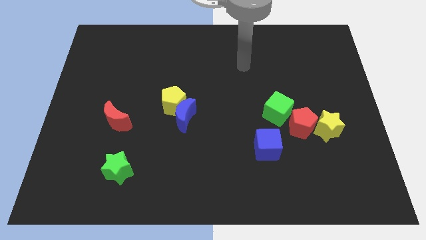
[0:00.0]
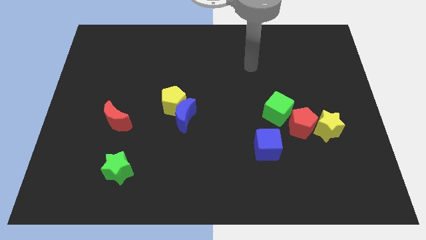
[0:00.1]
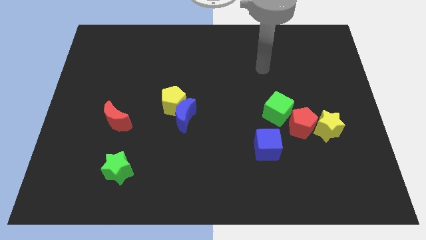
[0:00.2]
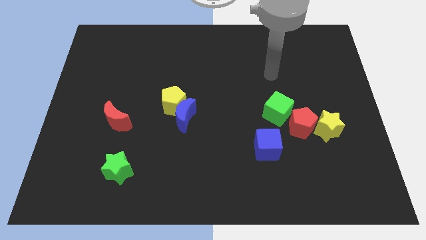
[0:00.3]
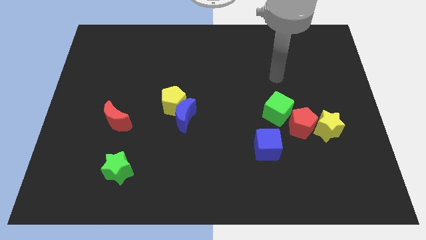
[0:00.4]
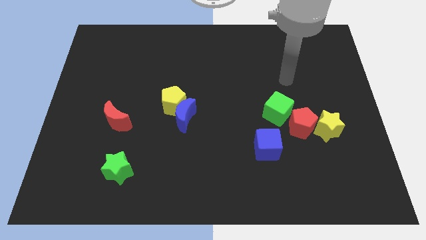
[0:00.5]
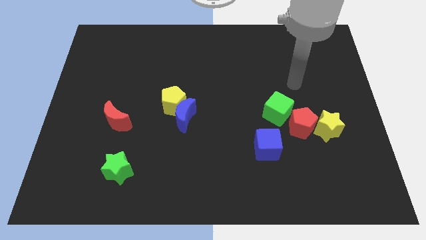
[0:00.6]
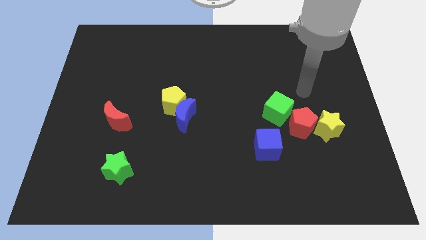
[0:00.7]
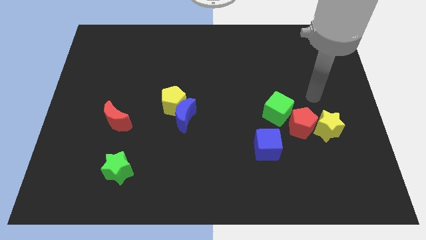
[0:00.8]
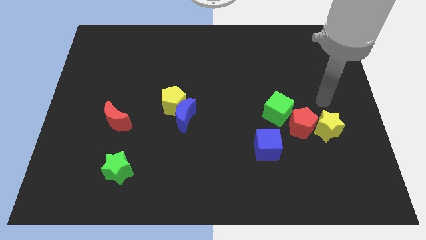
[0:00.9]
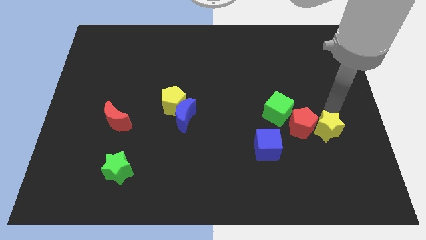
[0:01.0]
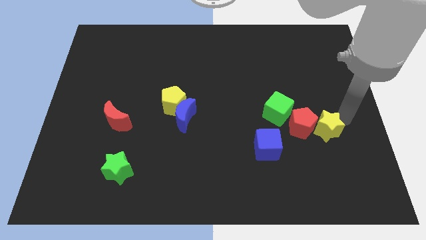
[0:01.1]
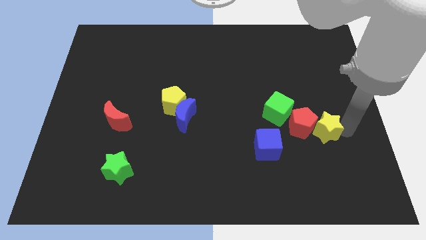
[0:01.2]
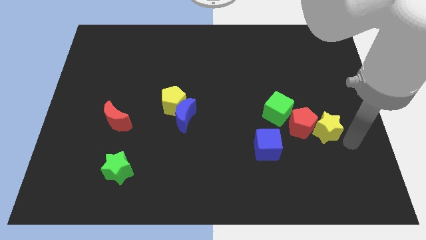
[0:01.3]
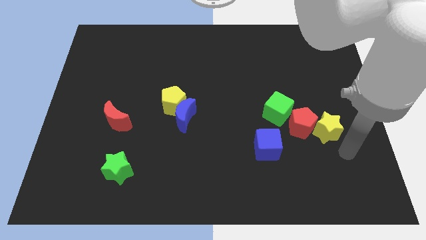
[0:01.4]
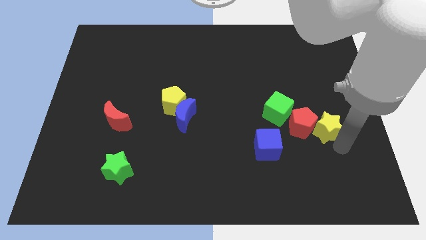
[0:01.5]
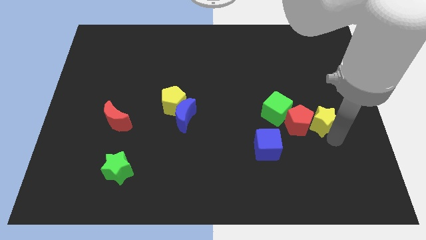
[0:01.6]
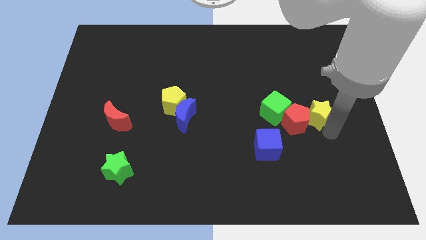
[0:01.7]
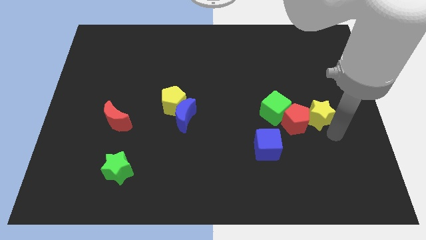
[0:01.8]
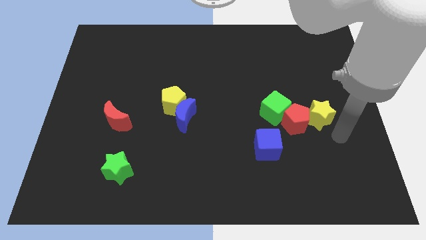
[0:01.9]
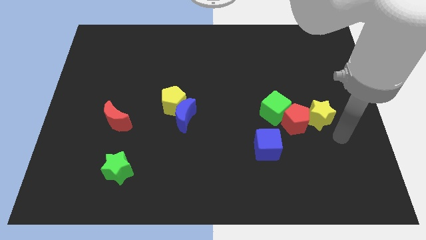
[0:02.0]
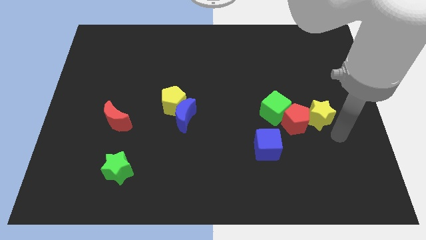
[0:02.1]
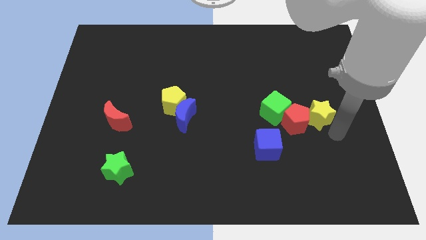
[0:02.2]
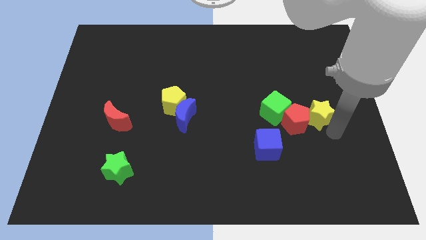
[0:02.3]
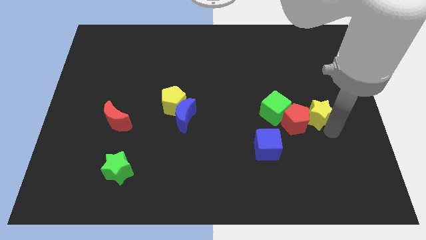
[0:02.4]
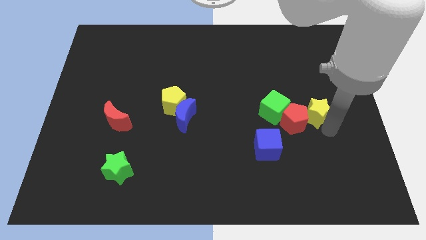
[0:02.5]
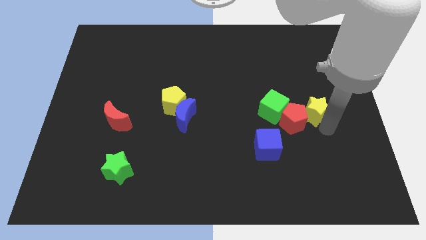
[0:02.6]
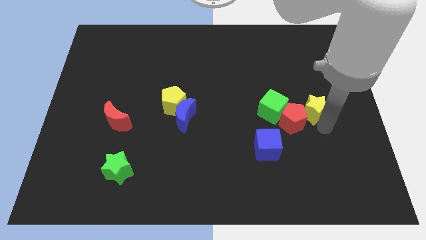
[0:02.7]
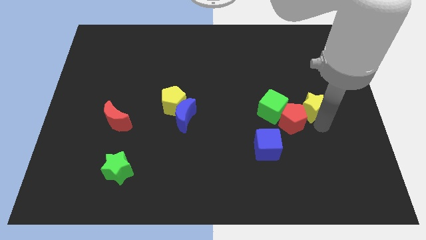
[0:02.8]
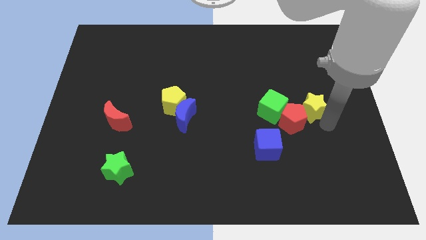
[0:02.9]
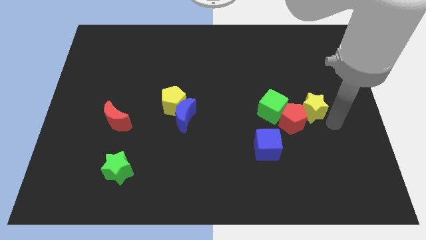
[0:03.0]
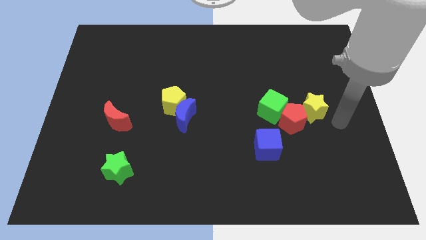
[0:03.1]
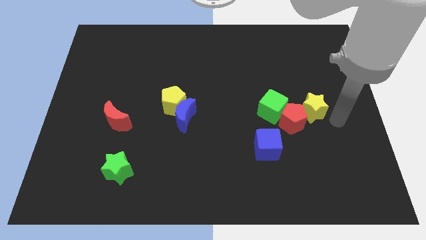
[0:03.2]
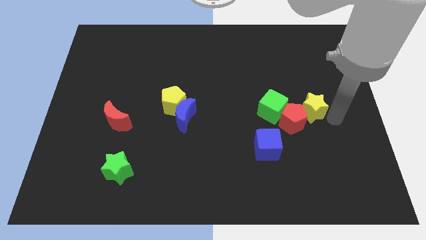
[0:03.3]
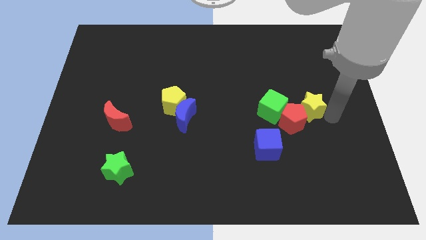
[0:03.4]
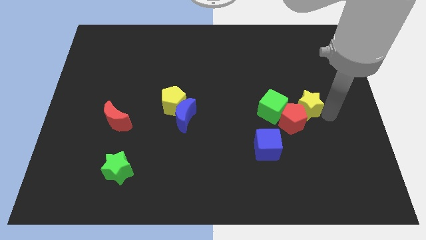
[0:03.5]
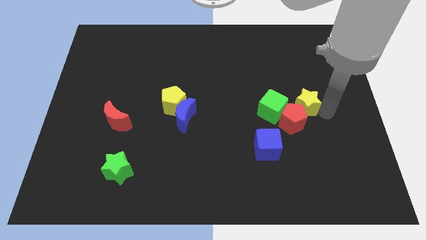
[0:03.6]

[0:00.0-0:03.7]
push the yellow star somewhat up and to the left diagonally

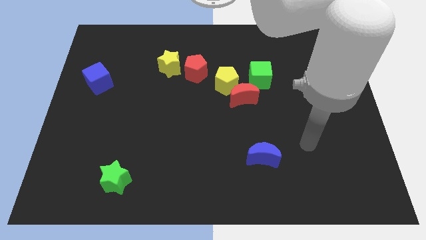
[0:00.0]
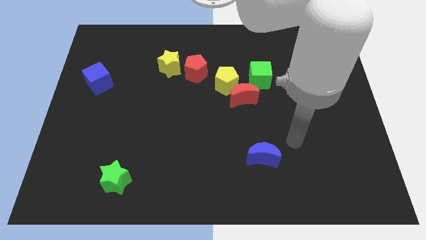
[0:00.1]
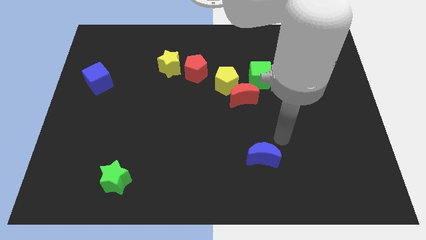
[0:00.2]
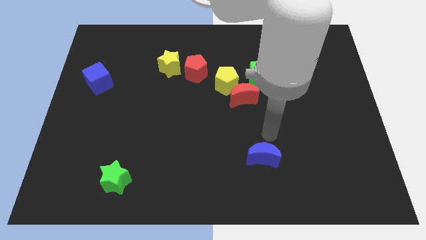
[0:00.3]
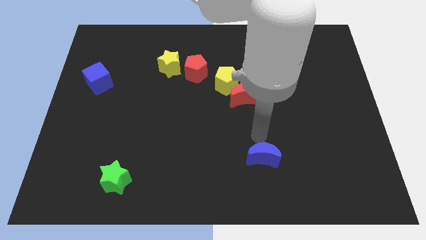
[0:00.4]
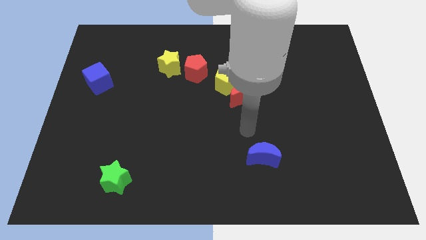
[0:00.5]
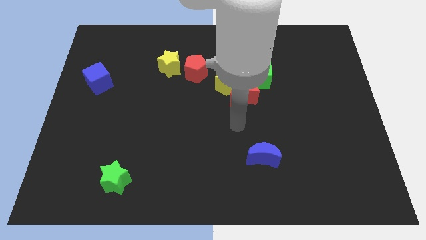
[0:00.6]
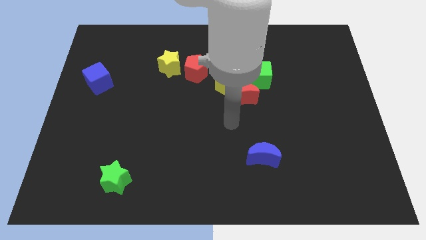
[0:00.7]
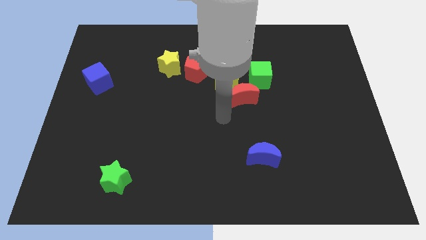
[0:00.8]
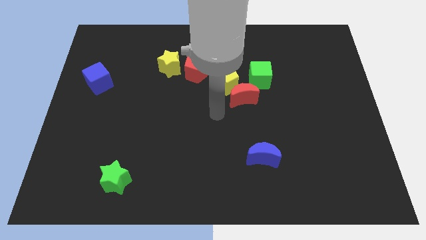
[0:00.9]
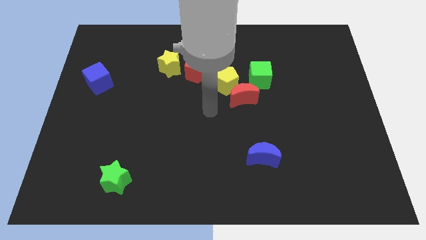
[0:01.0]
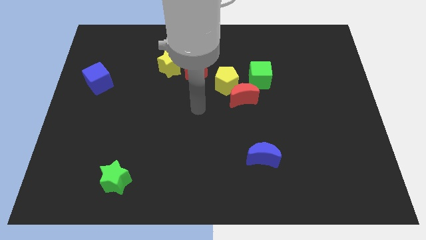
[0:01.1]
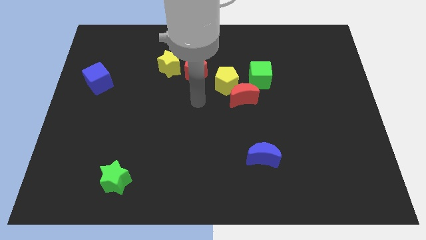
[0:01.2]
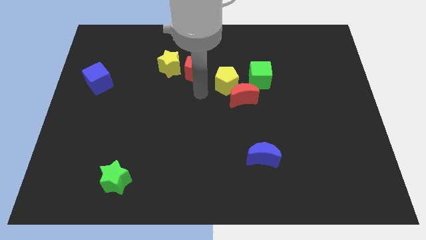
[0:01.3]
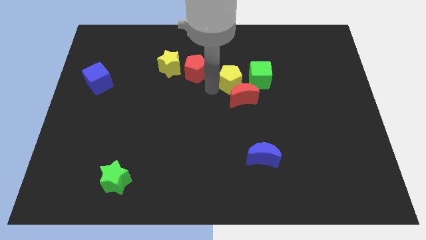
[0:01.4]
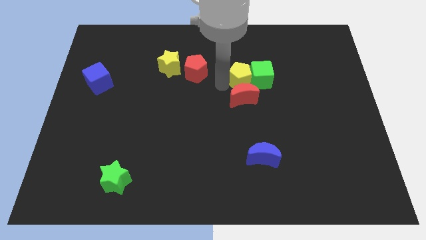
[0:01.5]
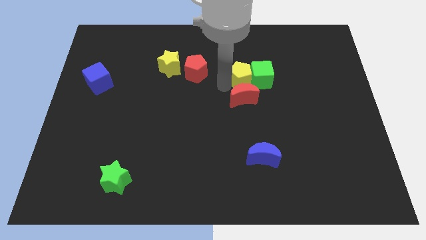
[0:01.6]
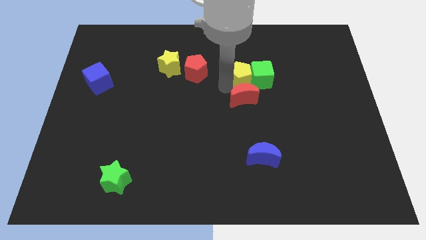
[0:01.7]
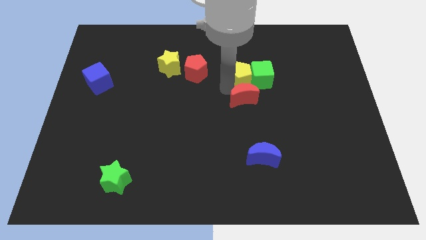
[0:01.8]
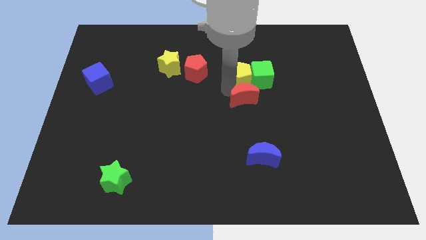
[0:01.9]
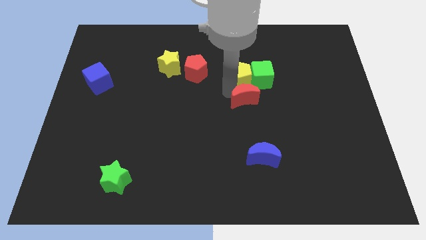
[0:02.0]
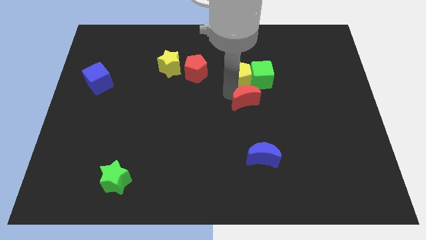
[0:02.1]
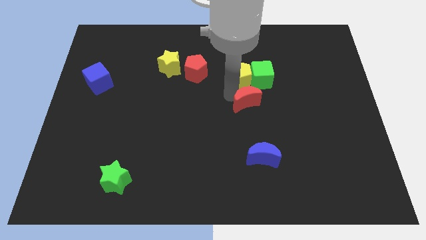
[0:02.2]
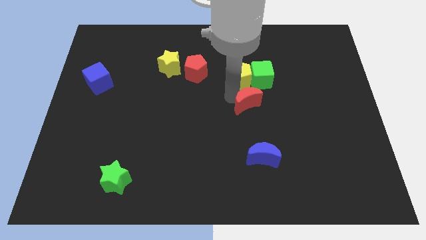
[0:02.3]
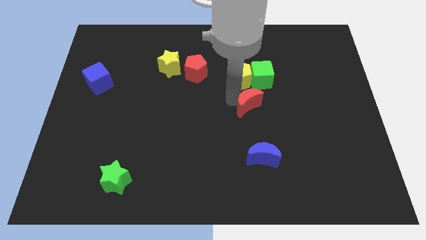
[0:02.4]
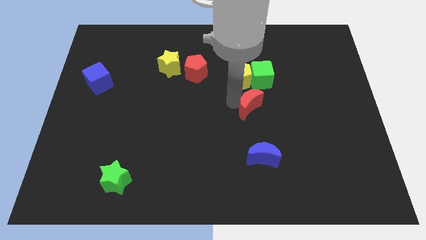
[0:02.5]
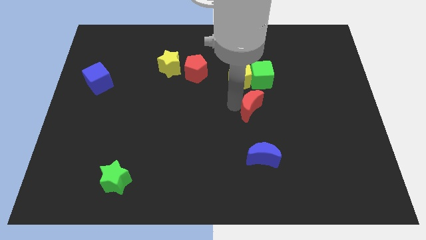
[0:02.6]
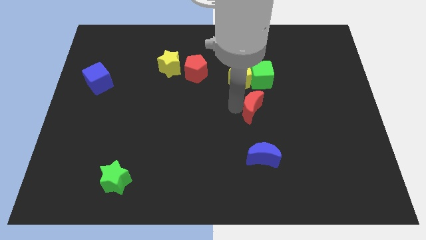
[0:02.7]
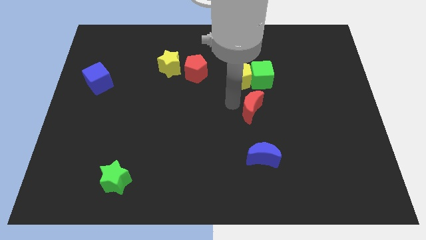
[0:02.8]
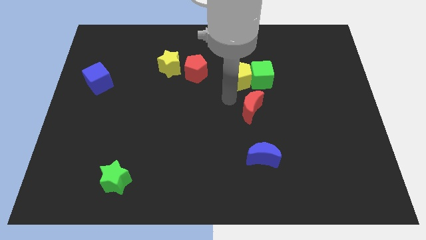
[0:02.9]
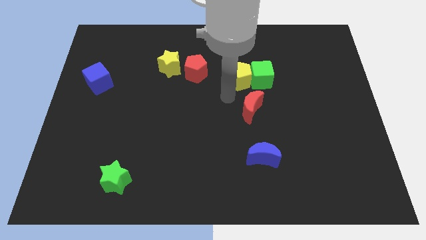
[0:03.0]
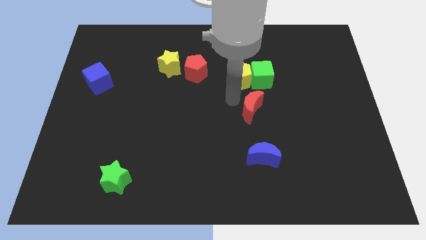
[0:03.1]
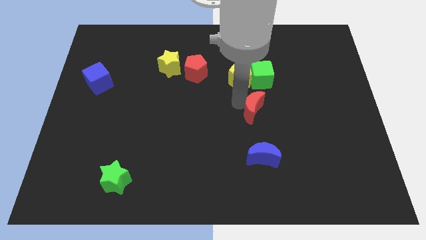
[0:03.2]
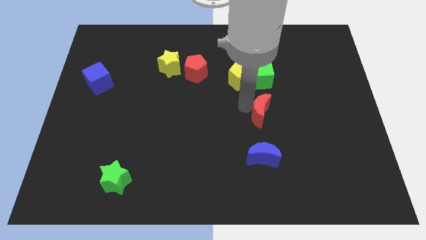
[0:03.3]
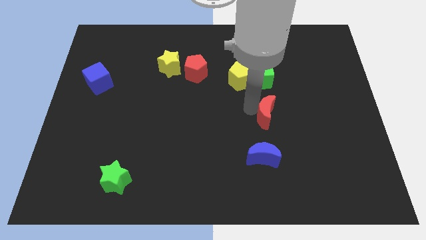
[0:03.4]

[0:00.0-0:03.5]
move the red moon a little bit downwards and then to the right

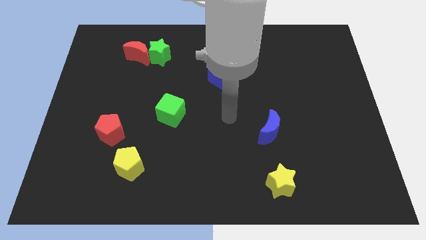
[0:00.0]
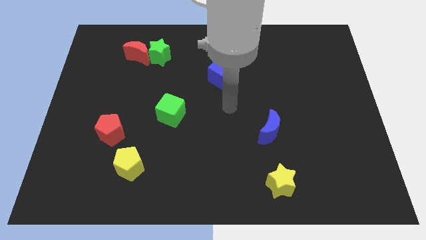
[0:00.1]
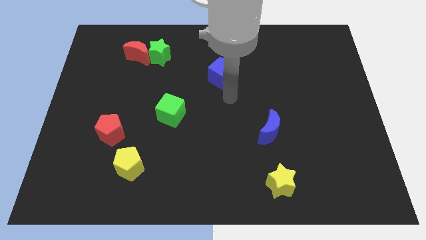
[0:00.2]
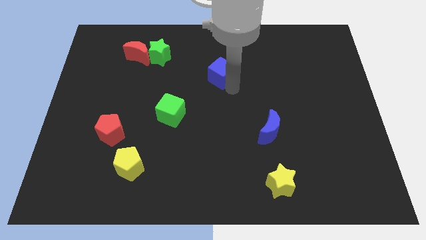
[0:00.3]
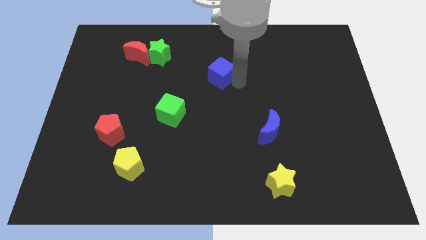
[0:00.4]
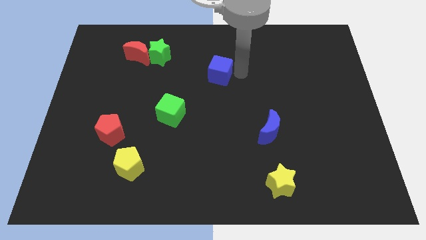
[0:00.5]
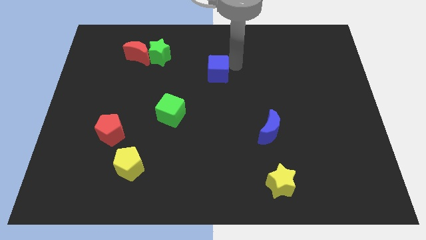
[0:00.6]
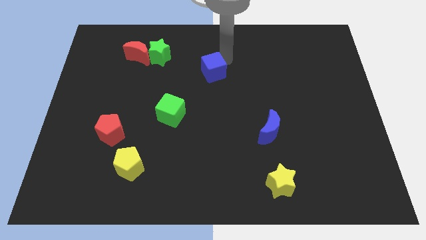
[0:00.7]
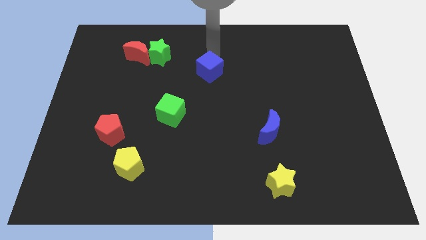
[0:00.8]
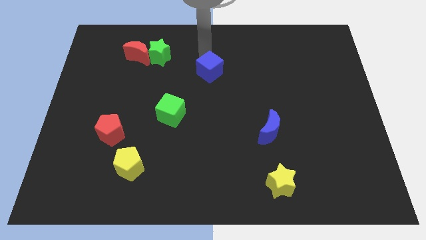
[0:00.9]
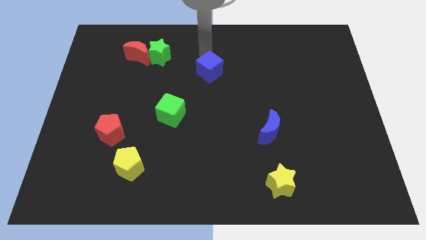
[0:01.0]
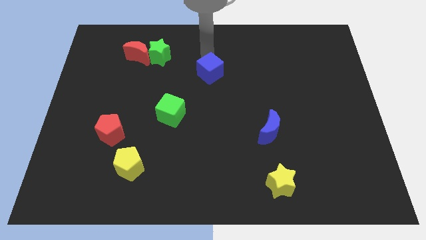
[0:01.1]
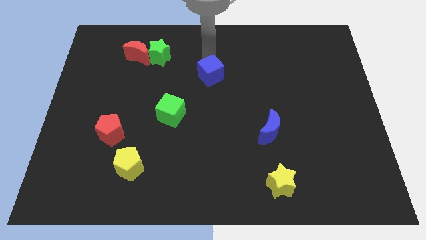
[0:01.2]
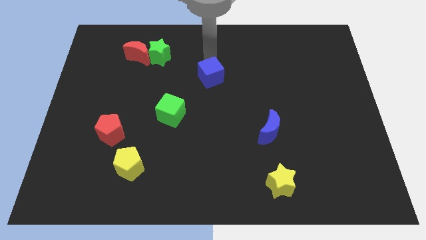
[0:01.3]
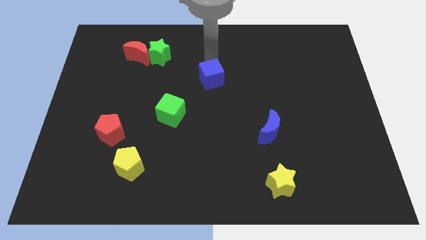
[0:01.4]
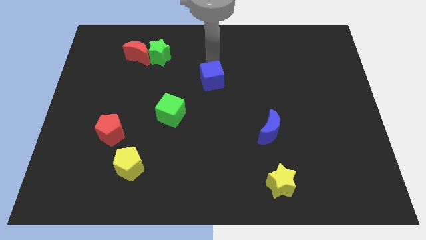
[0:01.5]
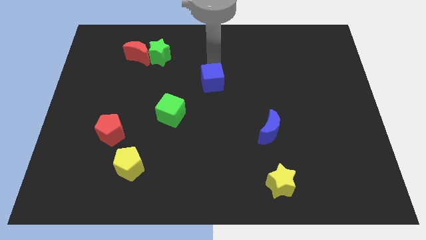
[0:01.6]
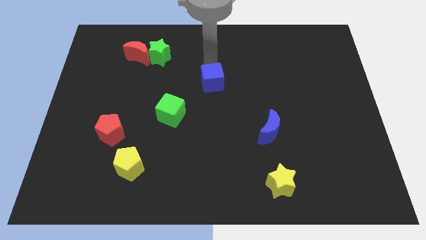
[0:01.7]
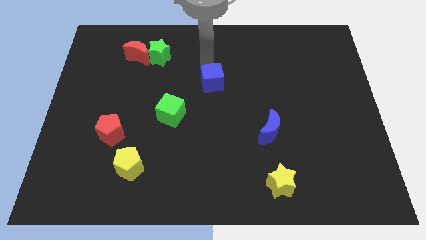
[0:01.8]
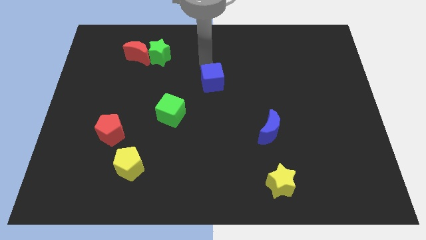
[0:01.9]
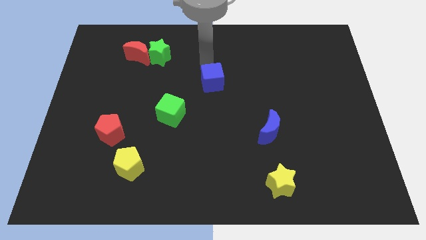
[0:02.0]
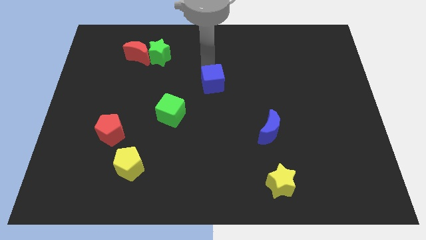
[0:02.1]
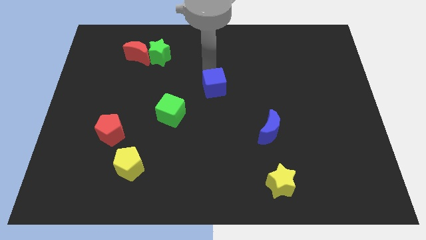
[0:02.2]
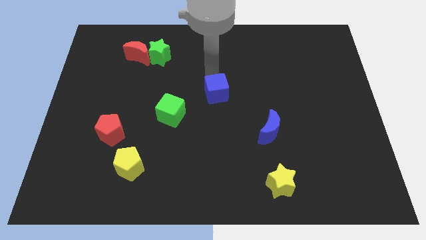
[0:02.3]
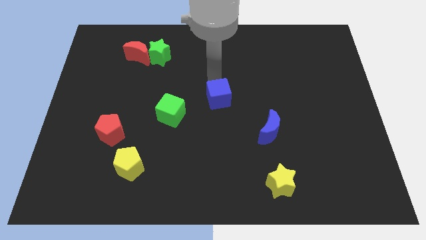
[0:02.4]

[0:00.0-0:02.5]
slightly move the blue cube down
